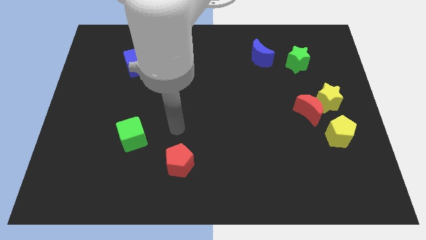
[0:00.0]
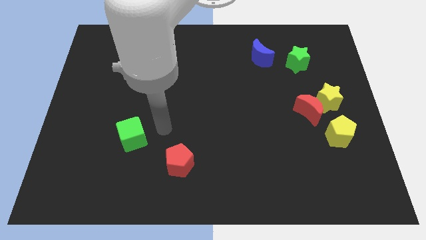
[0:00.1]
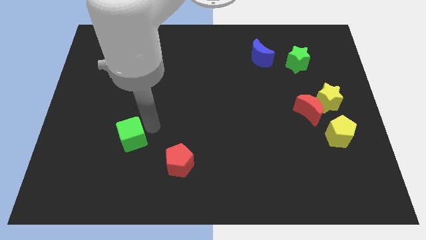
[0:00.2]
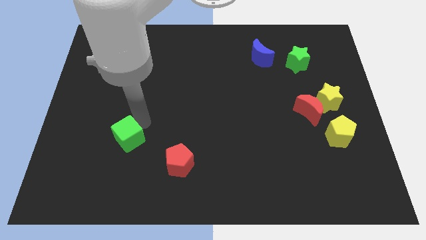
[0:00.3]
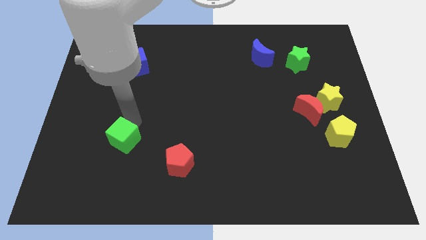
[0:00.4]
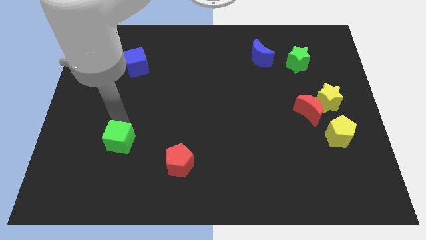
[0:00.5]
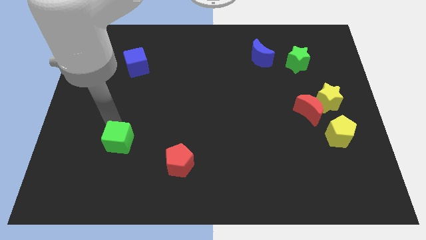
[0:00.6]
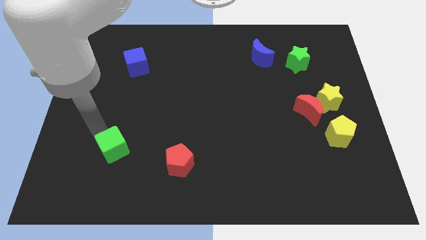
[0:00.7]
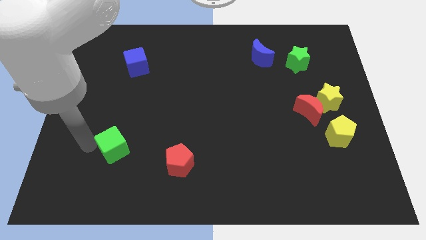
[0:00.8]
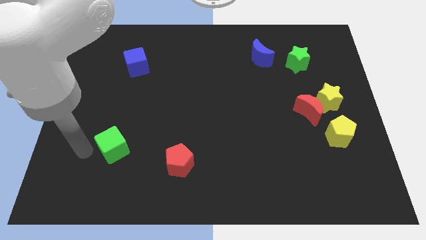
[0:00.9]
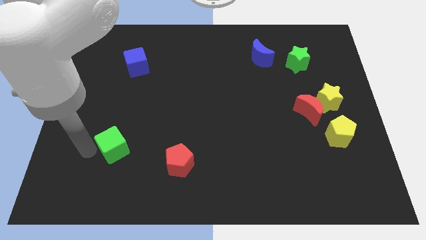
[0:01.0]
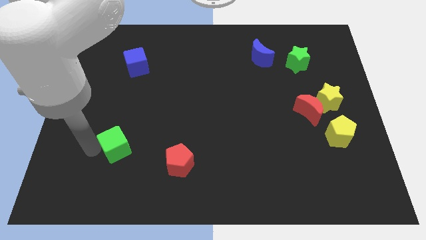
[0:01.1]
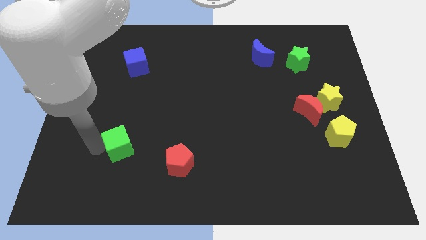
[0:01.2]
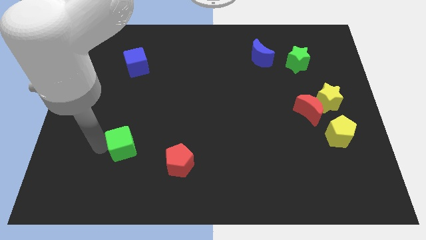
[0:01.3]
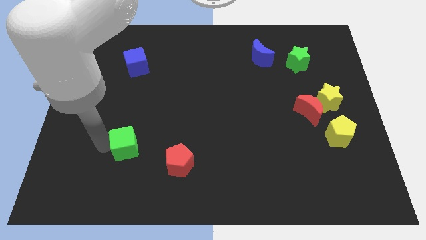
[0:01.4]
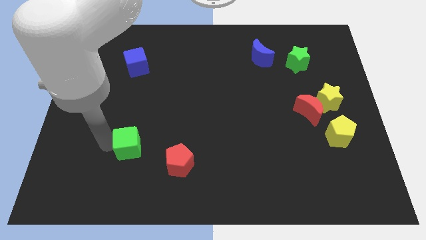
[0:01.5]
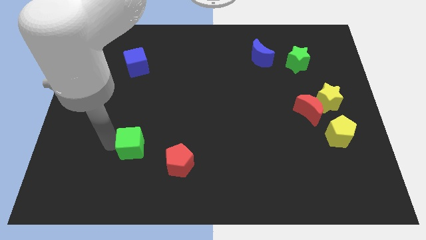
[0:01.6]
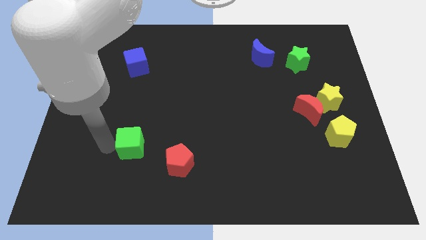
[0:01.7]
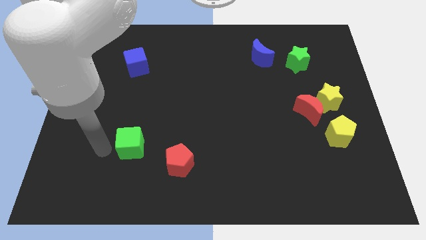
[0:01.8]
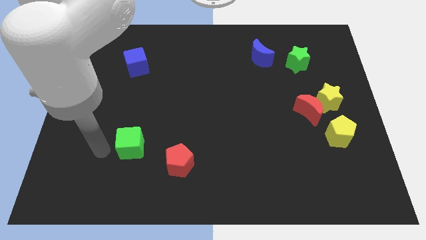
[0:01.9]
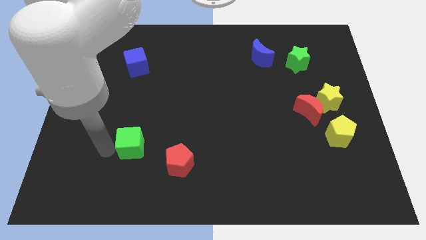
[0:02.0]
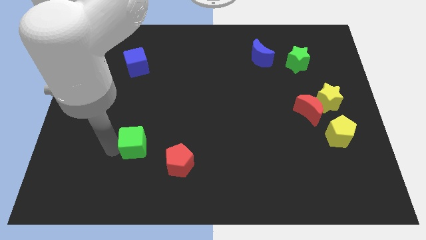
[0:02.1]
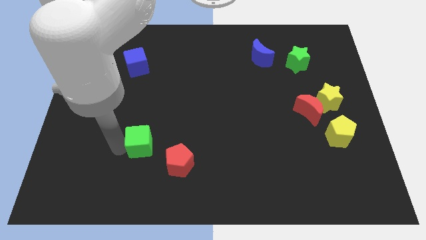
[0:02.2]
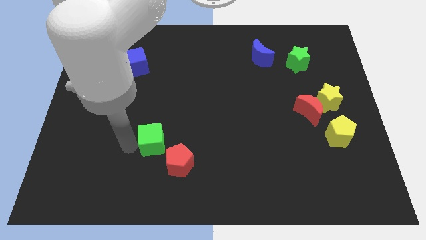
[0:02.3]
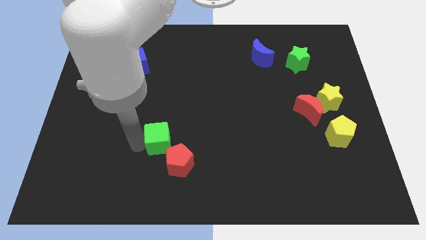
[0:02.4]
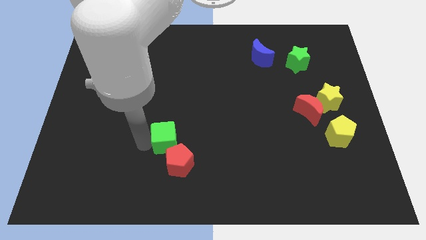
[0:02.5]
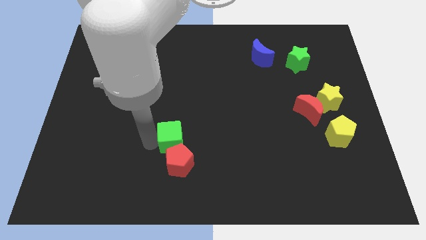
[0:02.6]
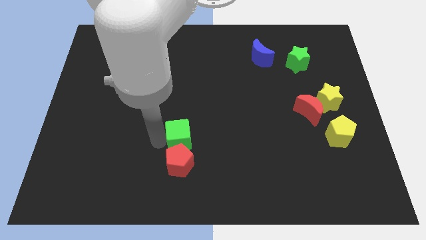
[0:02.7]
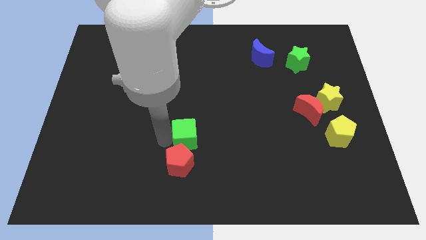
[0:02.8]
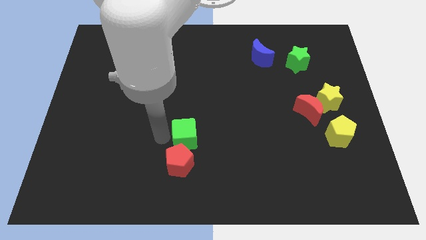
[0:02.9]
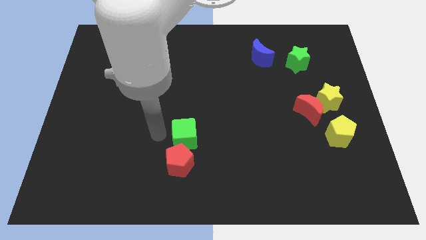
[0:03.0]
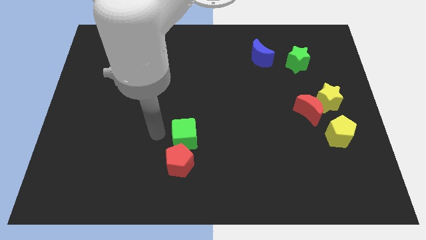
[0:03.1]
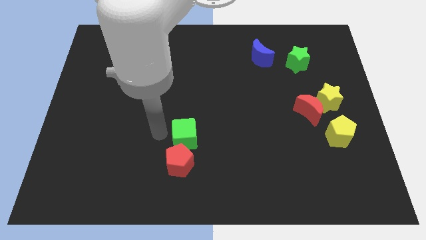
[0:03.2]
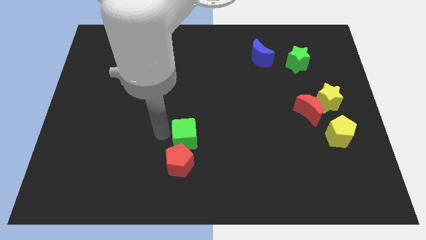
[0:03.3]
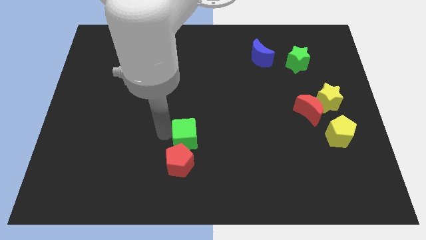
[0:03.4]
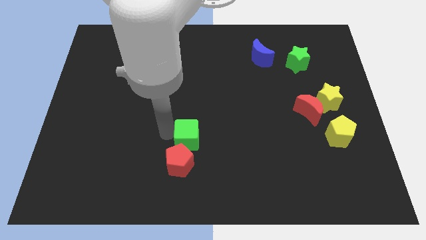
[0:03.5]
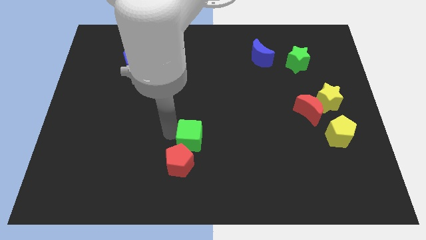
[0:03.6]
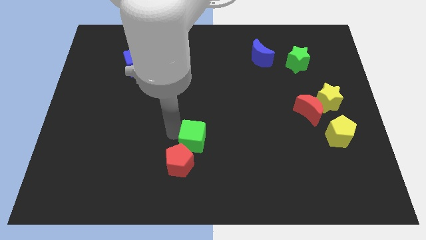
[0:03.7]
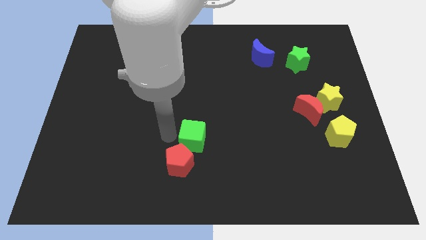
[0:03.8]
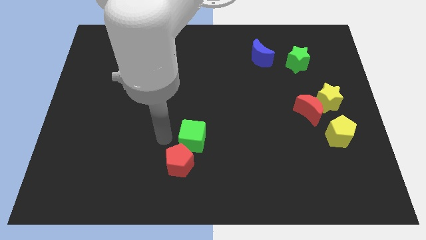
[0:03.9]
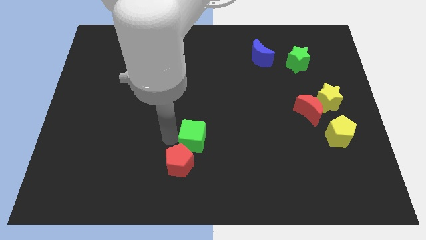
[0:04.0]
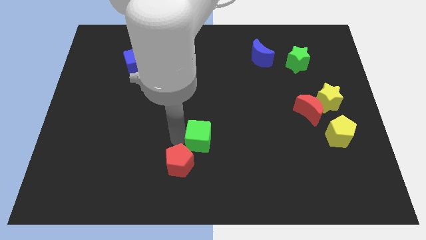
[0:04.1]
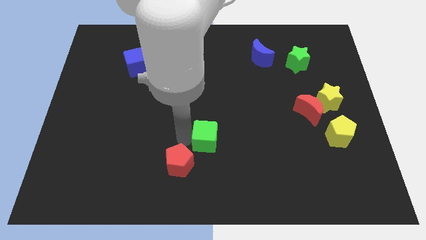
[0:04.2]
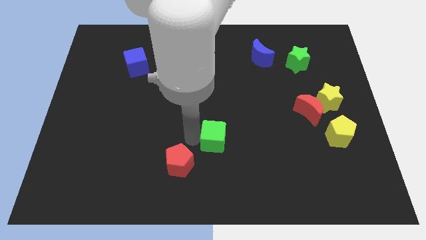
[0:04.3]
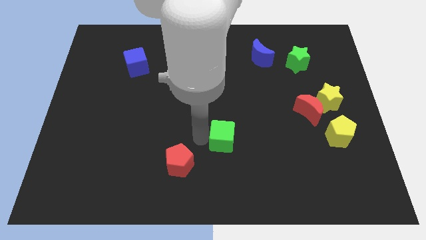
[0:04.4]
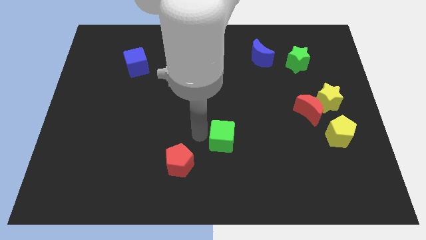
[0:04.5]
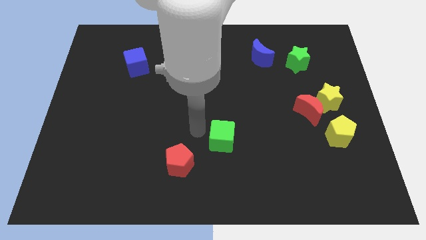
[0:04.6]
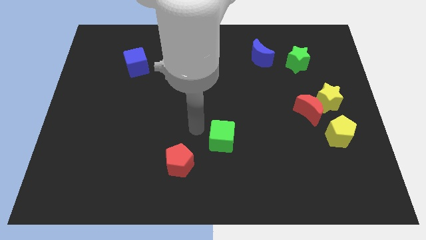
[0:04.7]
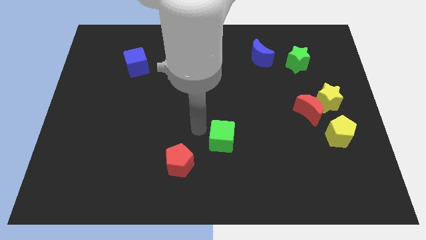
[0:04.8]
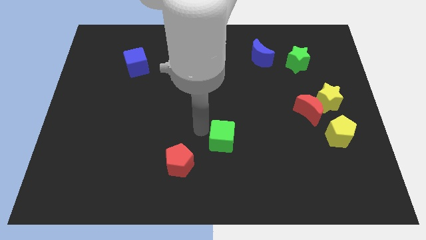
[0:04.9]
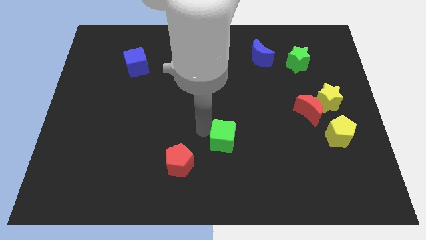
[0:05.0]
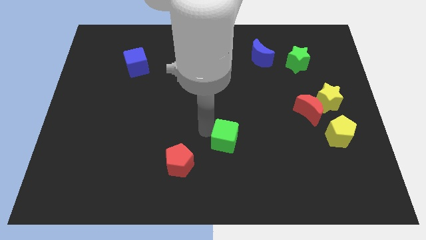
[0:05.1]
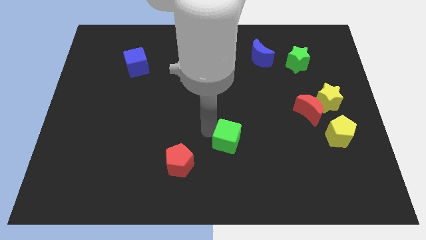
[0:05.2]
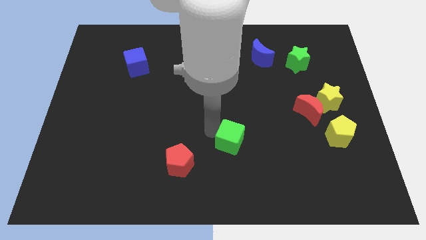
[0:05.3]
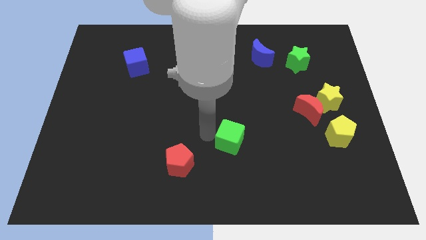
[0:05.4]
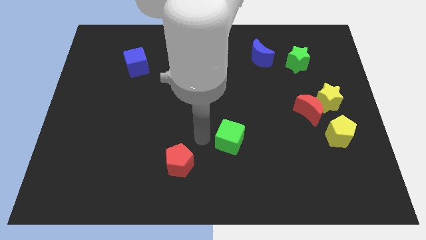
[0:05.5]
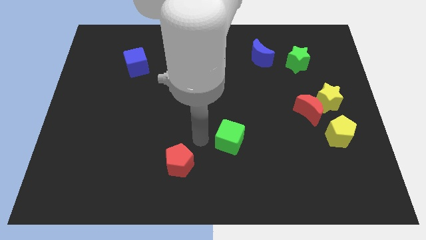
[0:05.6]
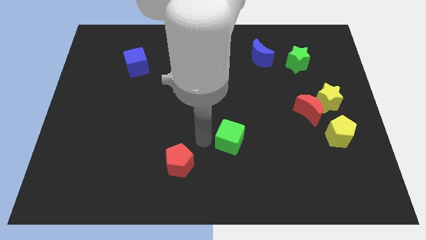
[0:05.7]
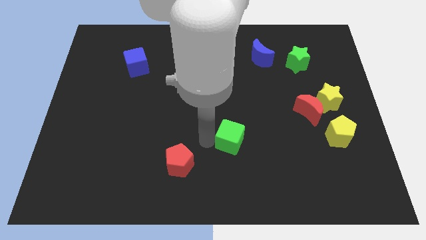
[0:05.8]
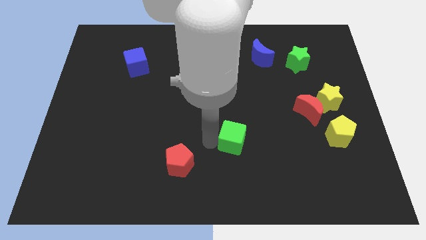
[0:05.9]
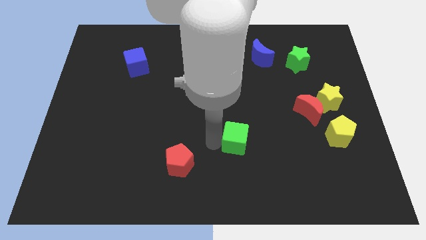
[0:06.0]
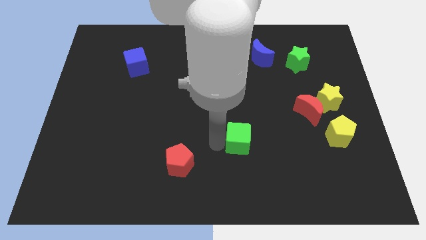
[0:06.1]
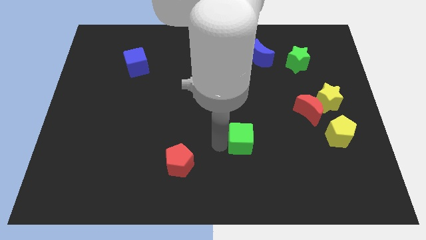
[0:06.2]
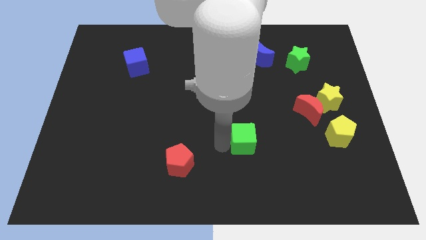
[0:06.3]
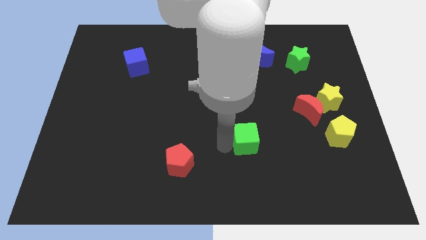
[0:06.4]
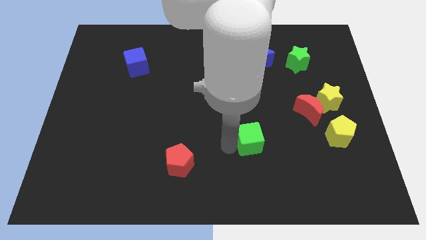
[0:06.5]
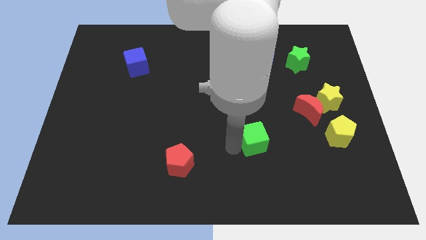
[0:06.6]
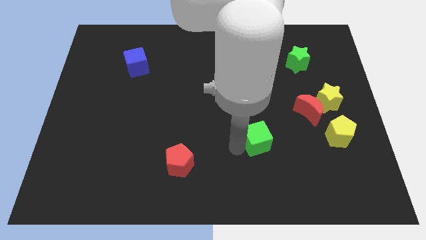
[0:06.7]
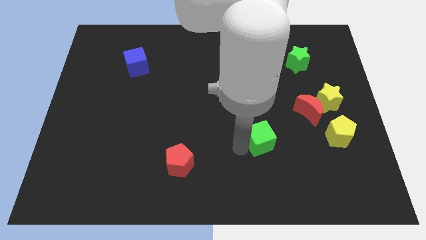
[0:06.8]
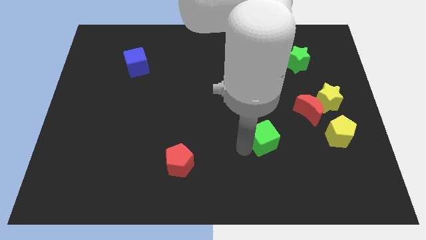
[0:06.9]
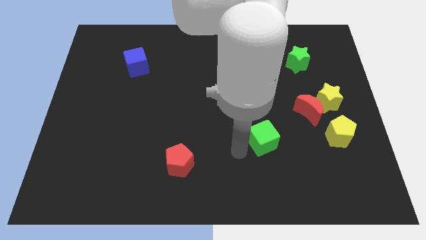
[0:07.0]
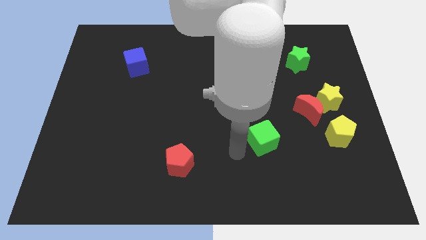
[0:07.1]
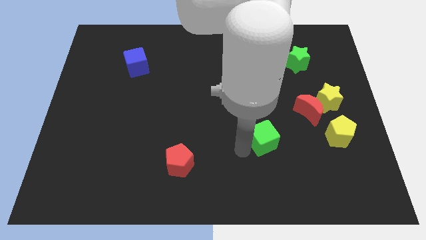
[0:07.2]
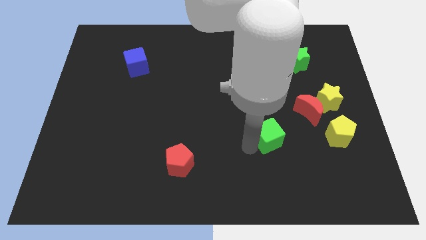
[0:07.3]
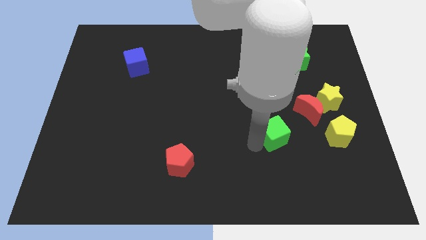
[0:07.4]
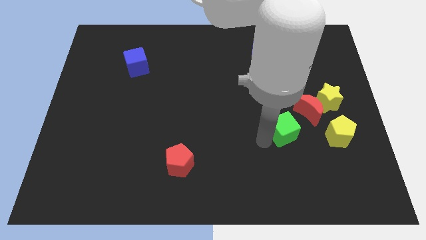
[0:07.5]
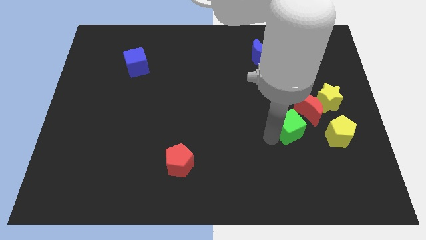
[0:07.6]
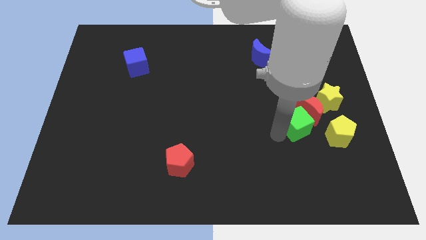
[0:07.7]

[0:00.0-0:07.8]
slide the green cube to the bottom left of the yellow star
